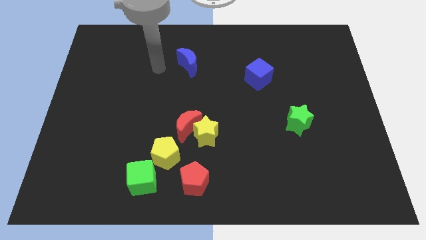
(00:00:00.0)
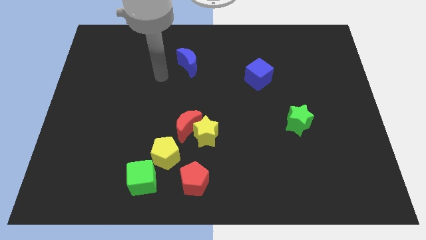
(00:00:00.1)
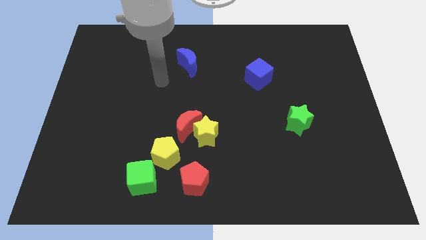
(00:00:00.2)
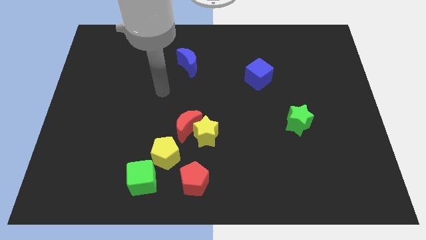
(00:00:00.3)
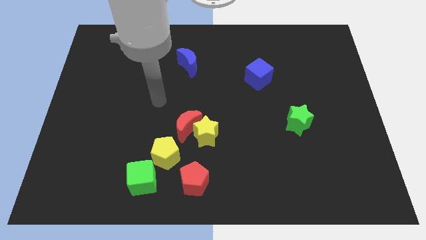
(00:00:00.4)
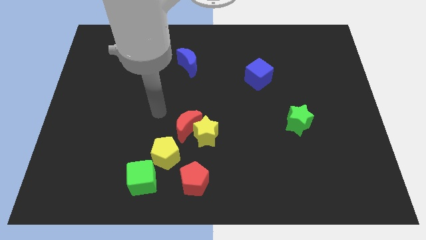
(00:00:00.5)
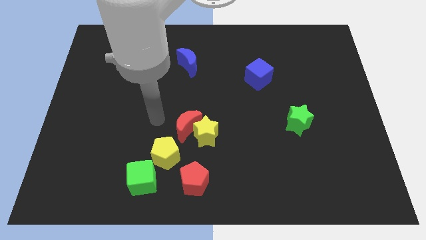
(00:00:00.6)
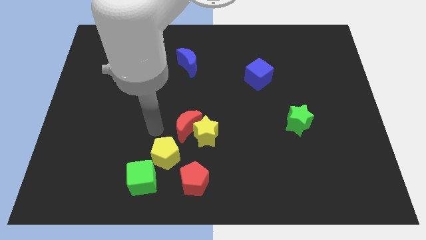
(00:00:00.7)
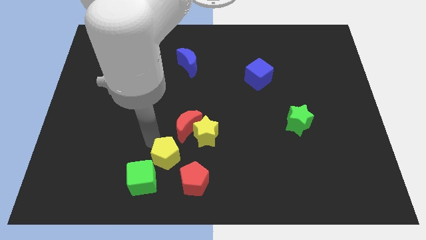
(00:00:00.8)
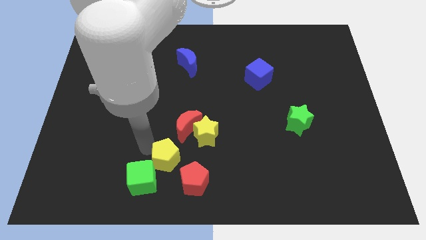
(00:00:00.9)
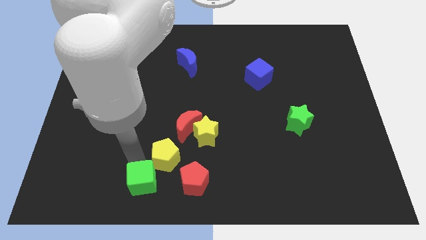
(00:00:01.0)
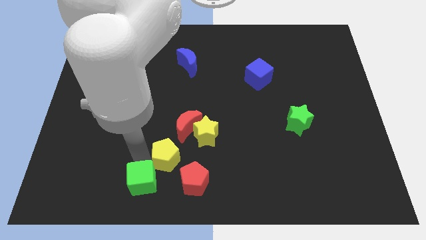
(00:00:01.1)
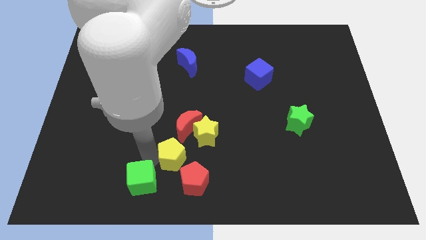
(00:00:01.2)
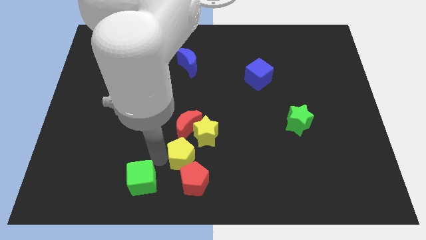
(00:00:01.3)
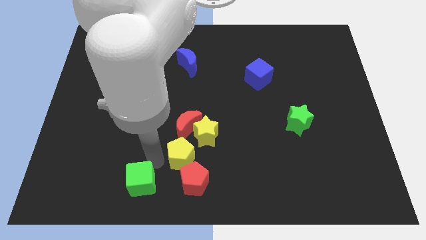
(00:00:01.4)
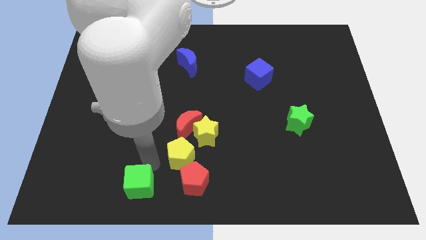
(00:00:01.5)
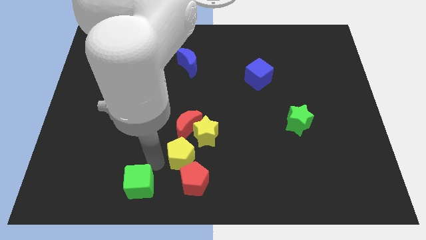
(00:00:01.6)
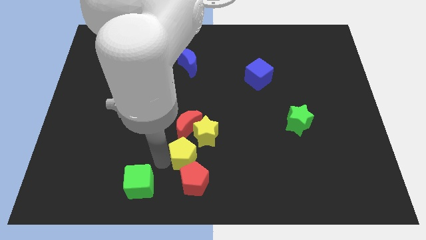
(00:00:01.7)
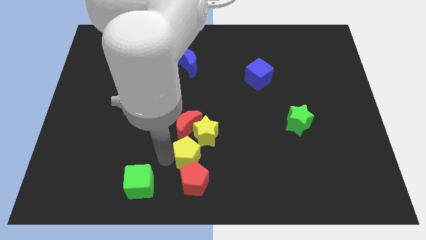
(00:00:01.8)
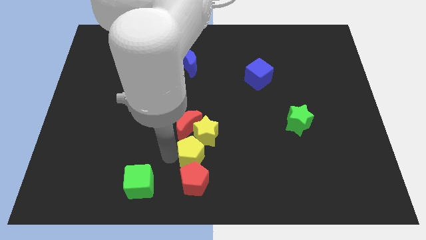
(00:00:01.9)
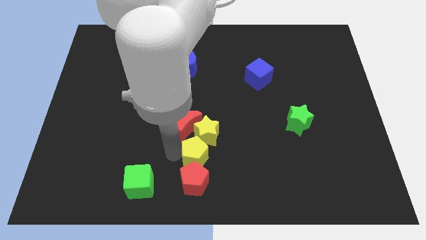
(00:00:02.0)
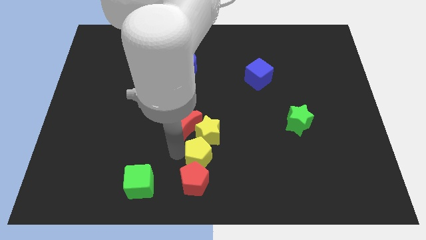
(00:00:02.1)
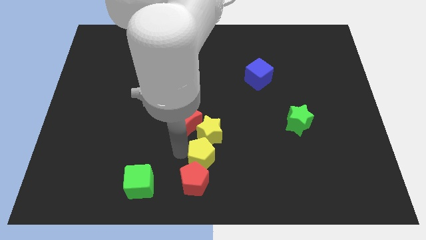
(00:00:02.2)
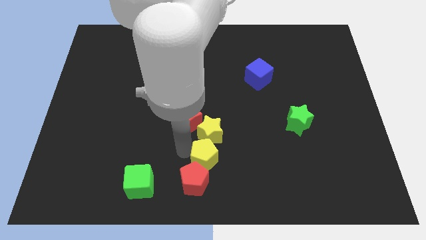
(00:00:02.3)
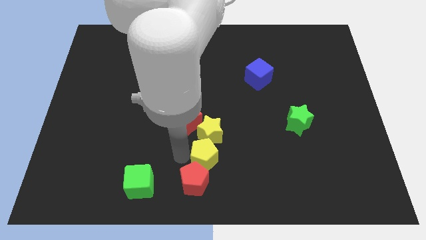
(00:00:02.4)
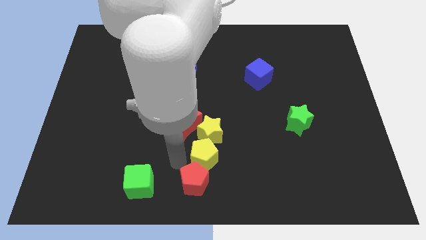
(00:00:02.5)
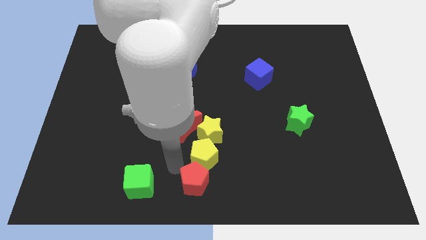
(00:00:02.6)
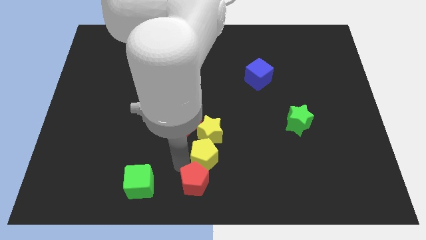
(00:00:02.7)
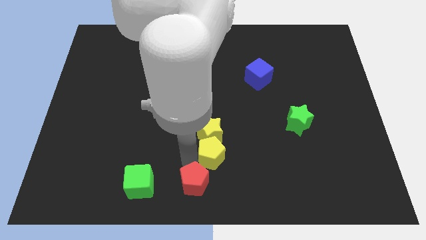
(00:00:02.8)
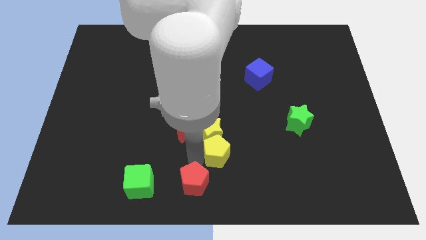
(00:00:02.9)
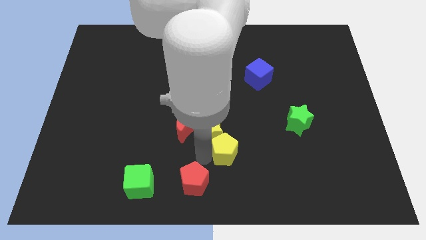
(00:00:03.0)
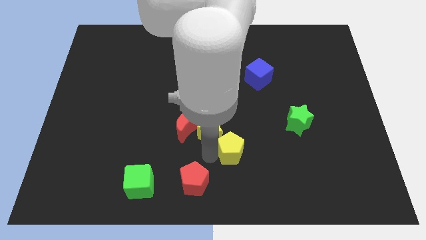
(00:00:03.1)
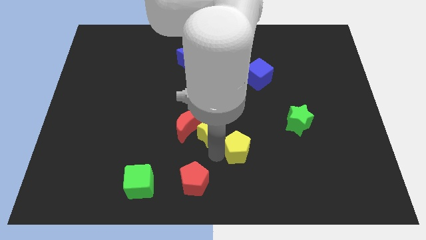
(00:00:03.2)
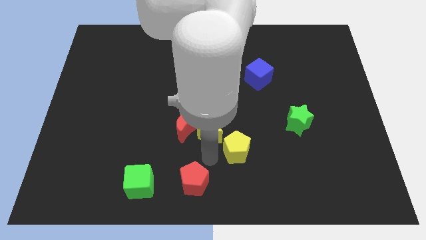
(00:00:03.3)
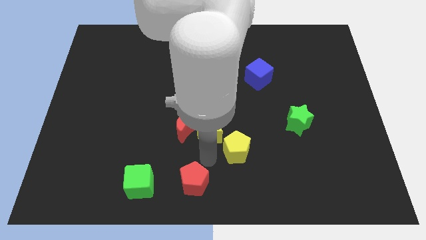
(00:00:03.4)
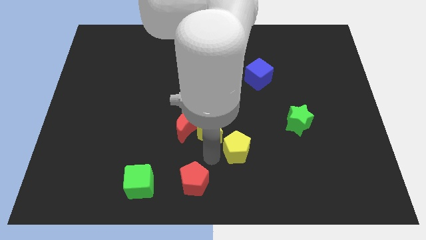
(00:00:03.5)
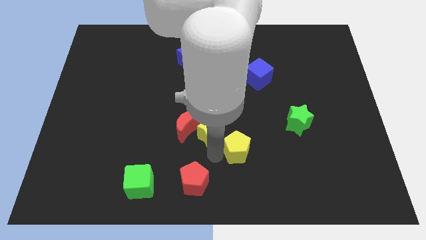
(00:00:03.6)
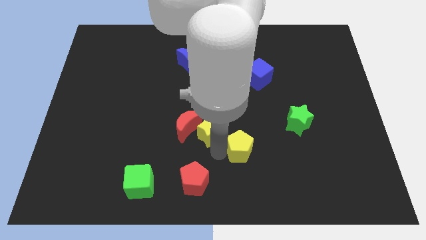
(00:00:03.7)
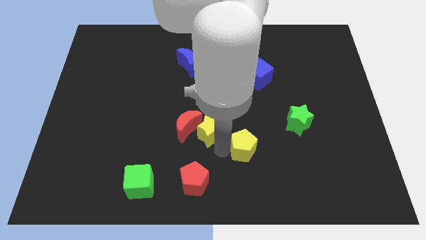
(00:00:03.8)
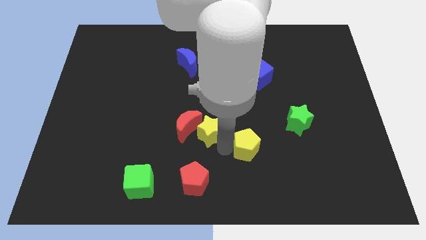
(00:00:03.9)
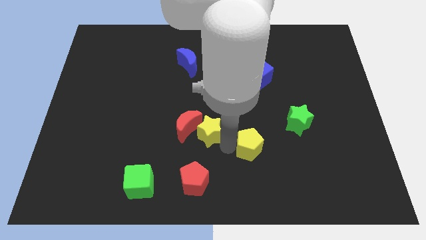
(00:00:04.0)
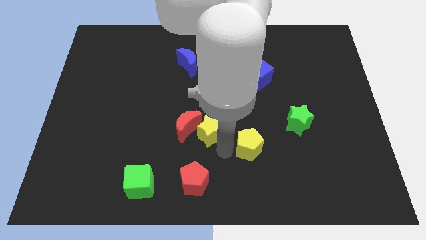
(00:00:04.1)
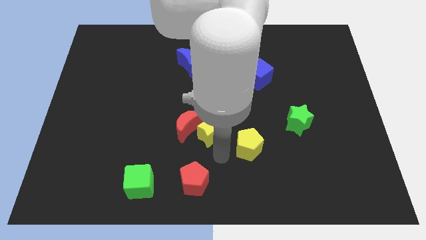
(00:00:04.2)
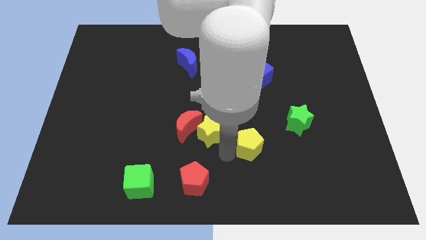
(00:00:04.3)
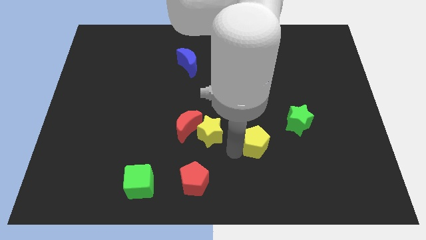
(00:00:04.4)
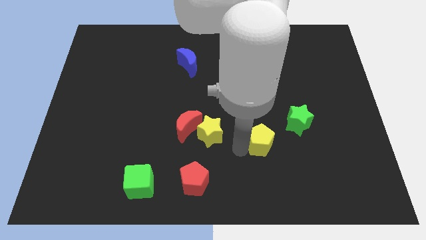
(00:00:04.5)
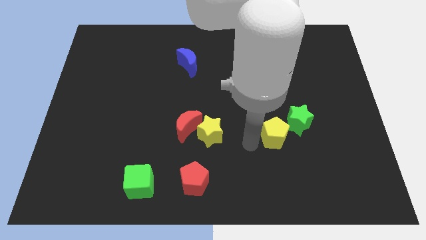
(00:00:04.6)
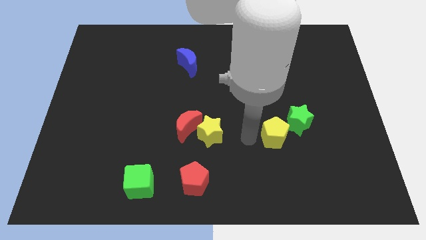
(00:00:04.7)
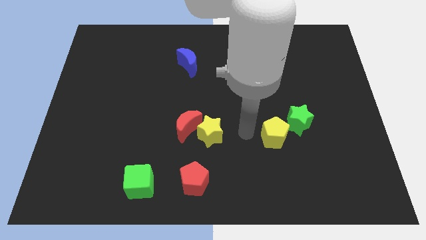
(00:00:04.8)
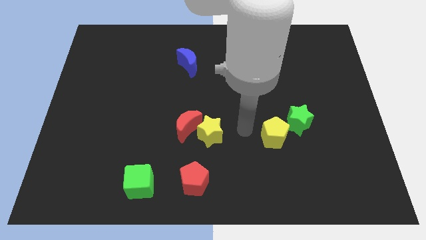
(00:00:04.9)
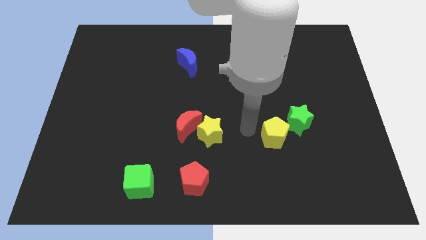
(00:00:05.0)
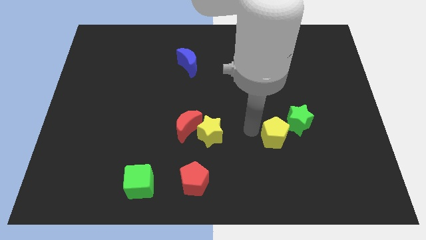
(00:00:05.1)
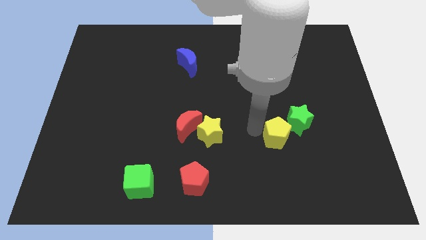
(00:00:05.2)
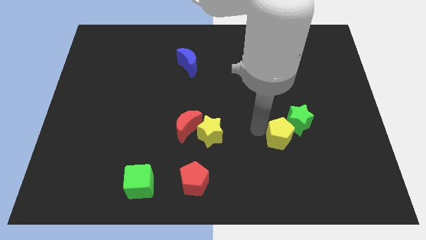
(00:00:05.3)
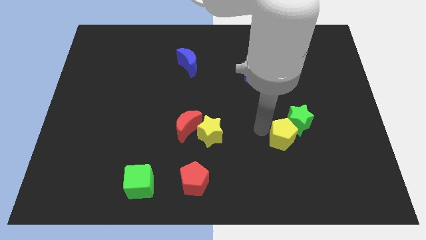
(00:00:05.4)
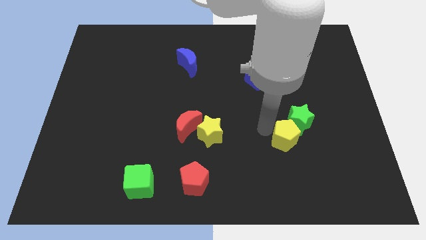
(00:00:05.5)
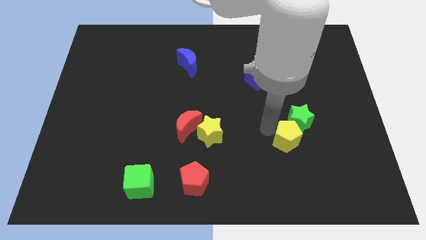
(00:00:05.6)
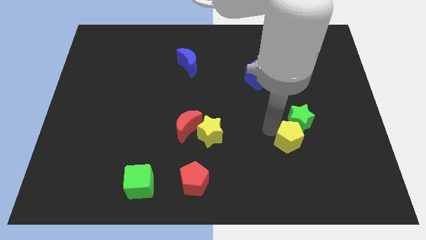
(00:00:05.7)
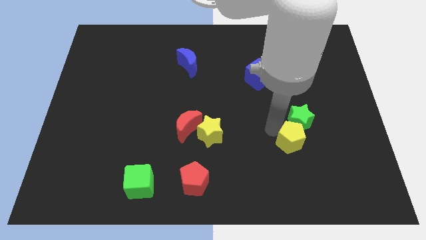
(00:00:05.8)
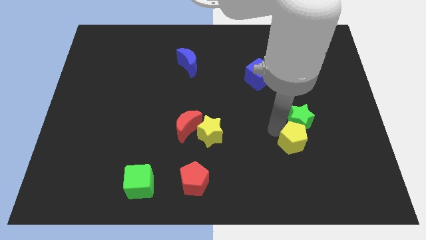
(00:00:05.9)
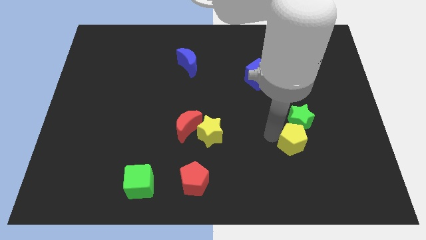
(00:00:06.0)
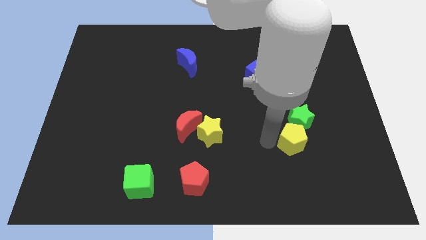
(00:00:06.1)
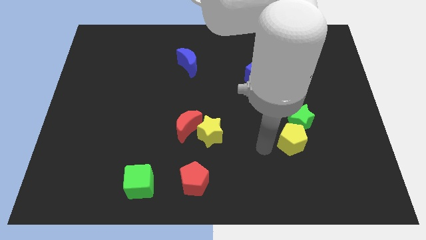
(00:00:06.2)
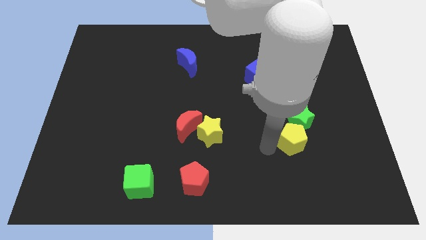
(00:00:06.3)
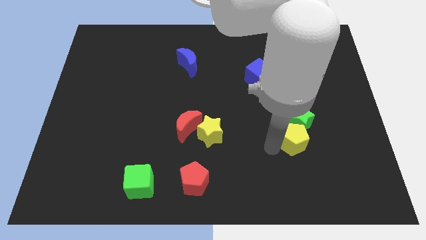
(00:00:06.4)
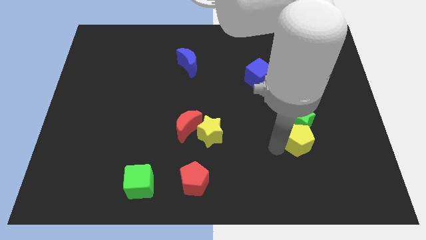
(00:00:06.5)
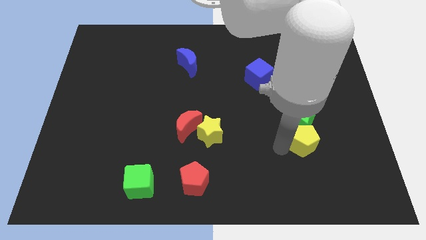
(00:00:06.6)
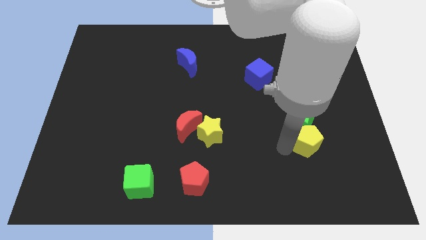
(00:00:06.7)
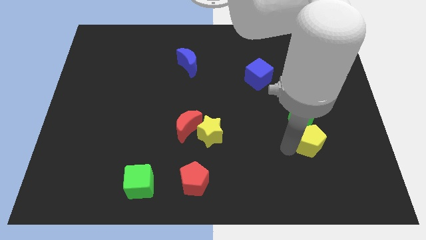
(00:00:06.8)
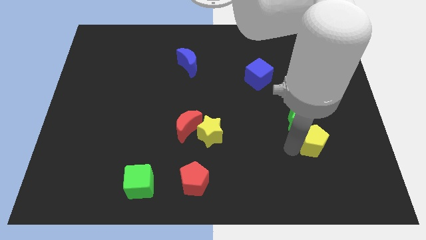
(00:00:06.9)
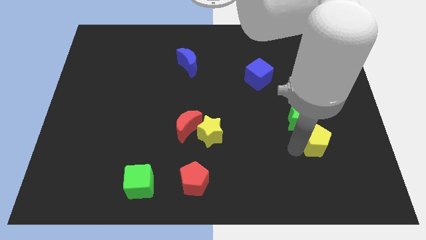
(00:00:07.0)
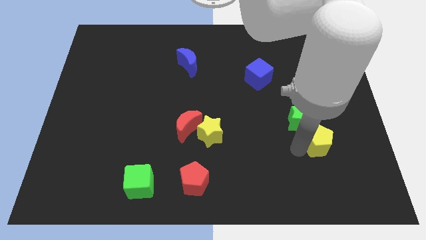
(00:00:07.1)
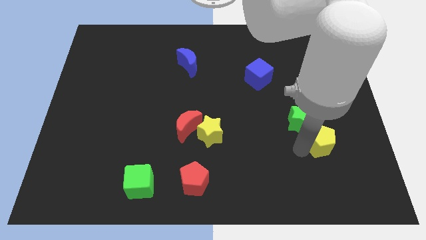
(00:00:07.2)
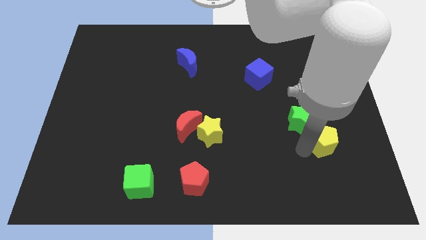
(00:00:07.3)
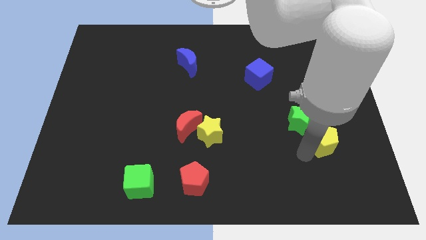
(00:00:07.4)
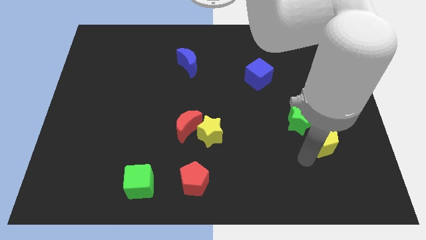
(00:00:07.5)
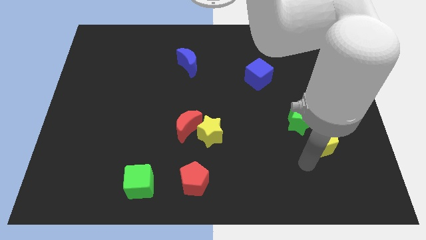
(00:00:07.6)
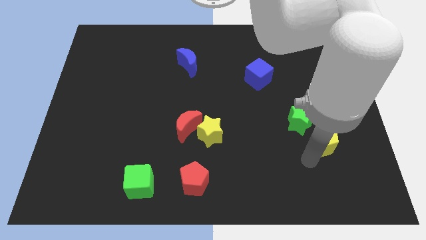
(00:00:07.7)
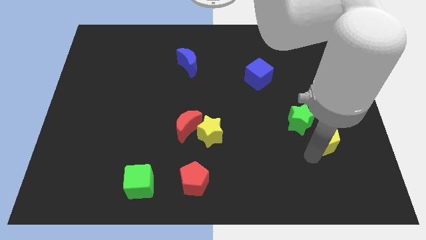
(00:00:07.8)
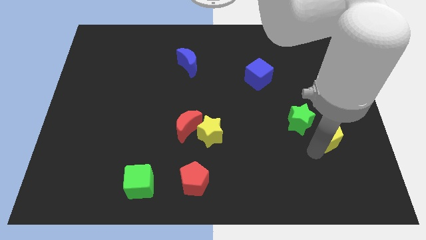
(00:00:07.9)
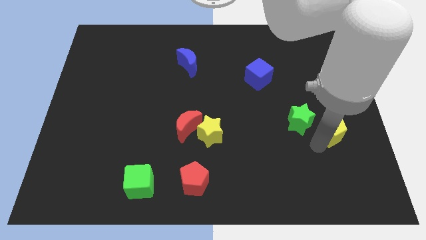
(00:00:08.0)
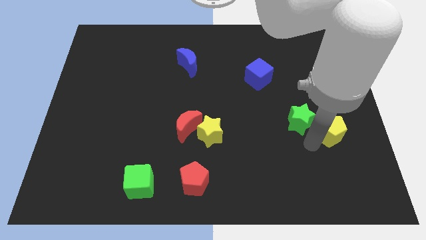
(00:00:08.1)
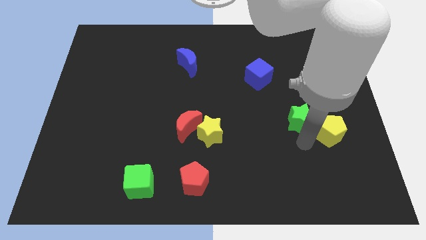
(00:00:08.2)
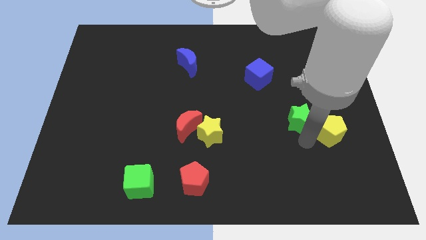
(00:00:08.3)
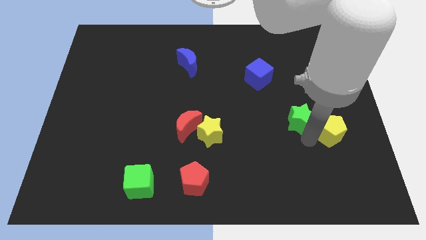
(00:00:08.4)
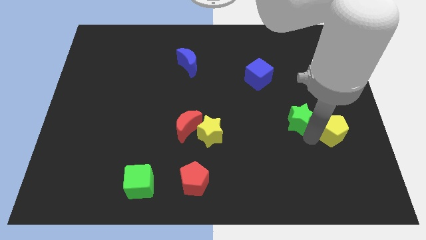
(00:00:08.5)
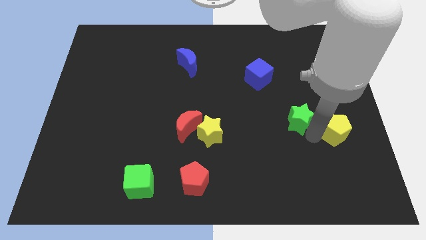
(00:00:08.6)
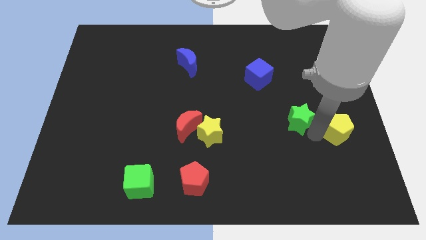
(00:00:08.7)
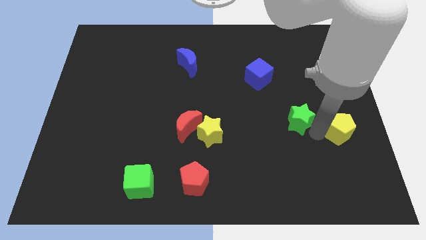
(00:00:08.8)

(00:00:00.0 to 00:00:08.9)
slide the yellow pentagon to the right side of the board
